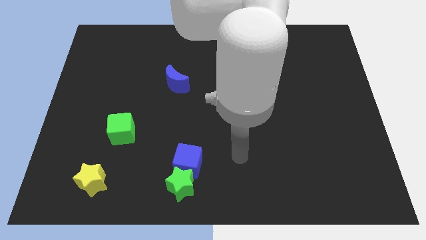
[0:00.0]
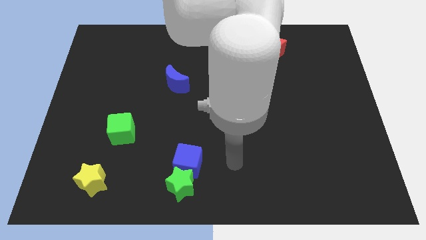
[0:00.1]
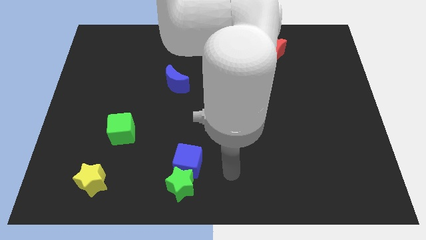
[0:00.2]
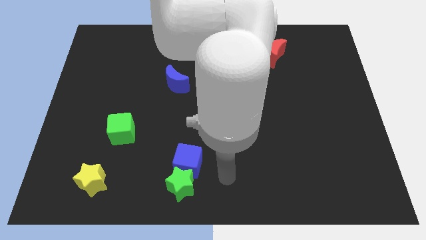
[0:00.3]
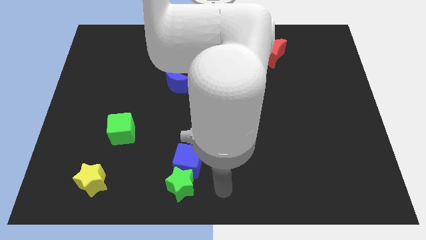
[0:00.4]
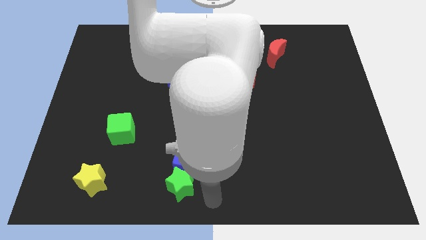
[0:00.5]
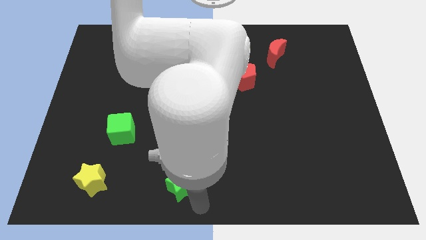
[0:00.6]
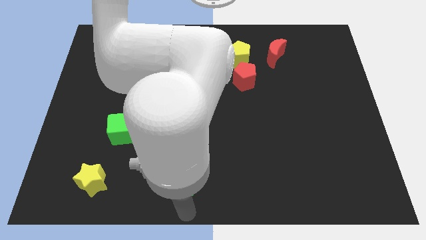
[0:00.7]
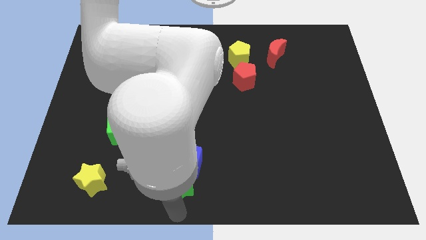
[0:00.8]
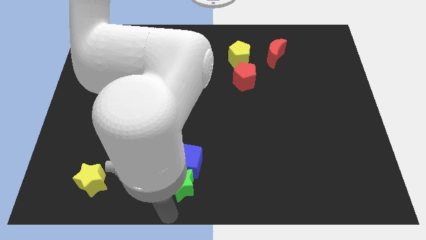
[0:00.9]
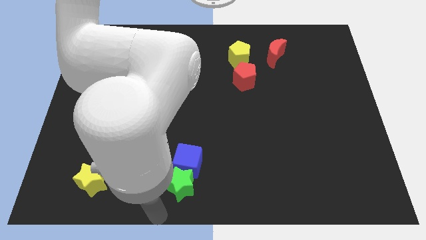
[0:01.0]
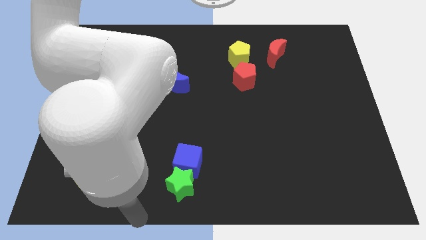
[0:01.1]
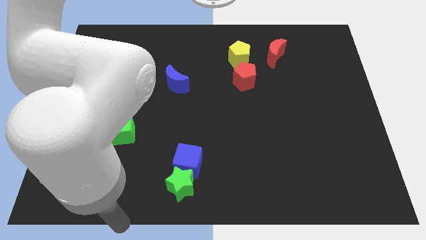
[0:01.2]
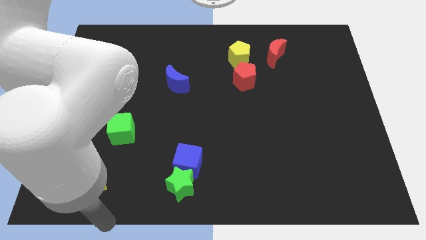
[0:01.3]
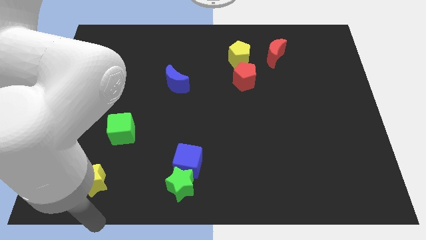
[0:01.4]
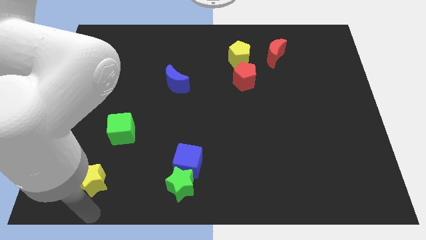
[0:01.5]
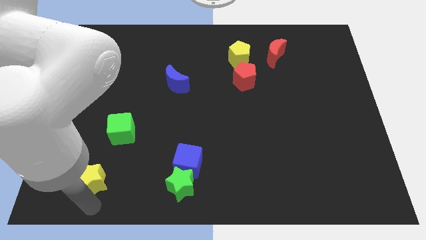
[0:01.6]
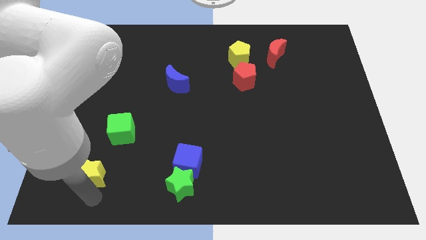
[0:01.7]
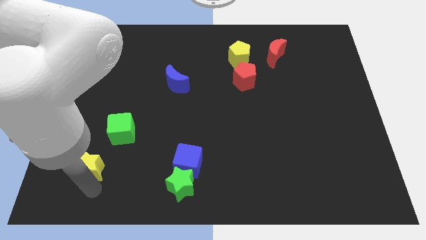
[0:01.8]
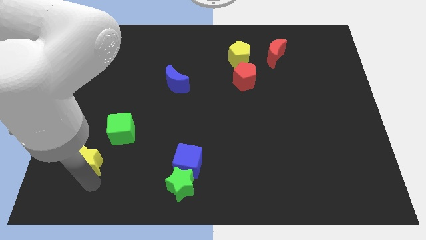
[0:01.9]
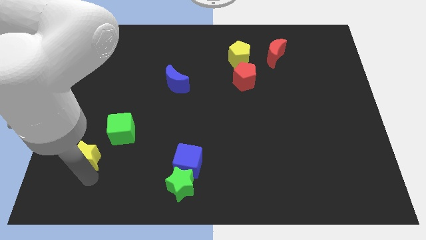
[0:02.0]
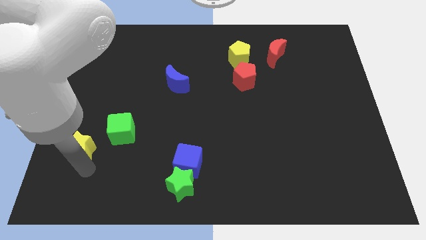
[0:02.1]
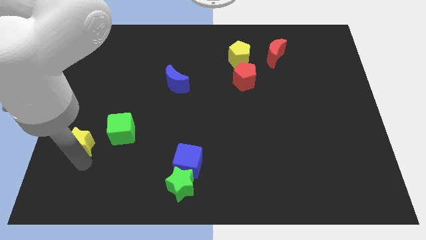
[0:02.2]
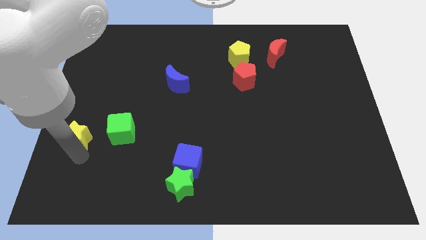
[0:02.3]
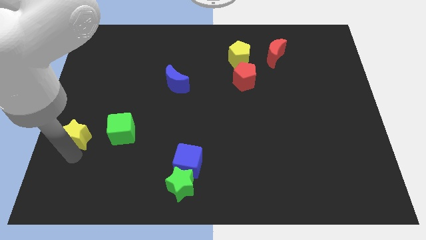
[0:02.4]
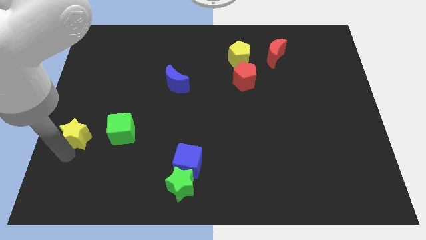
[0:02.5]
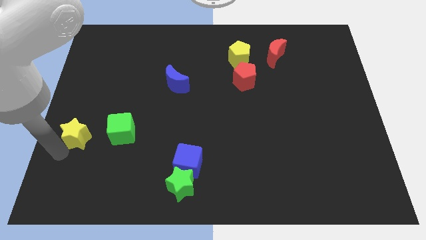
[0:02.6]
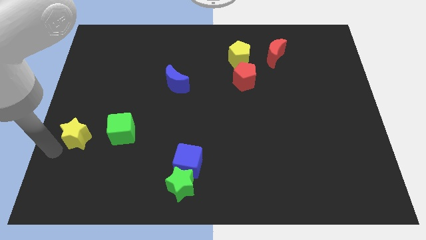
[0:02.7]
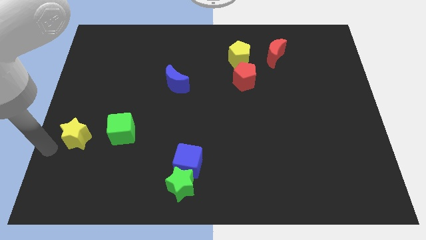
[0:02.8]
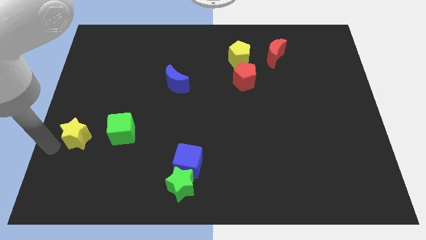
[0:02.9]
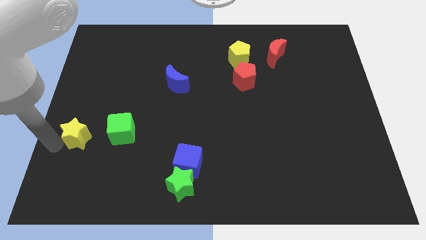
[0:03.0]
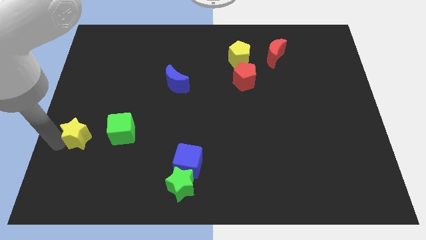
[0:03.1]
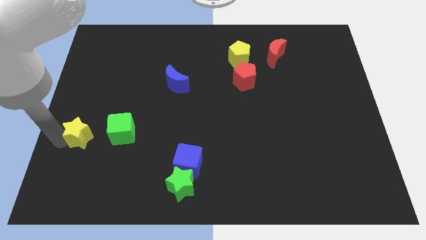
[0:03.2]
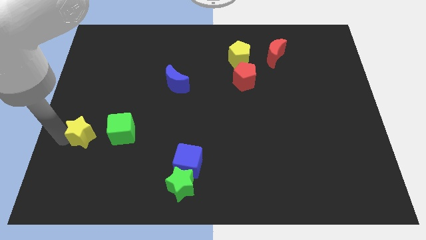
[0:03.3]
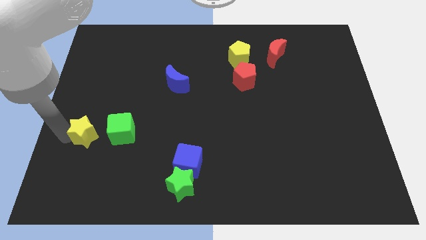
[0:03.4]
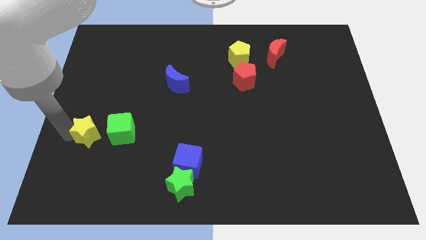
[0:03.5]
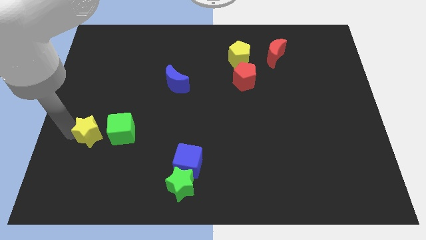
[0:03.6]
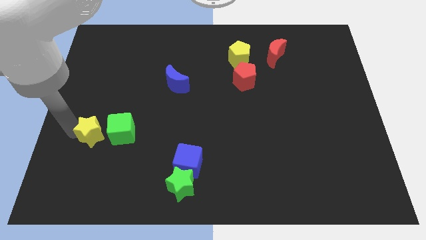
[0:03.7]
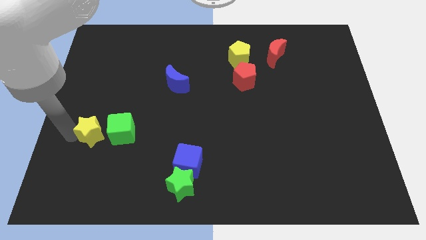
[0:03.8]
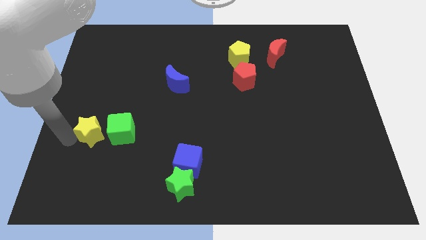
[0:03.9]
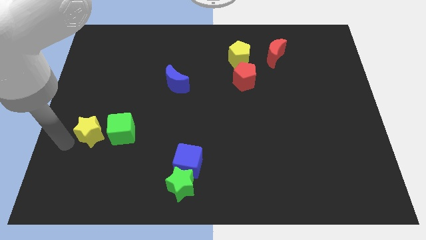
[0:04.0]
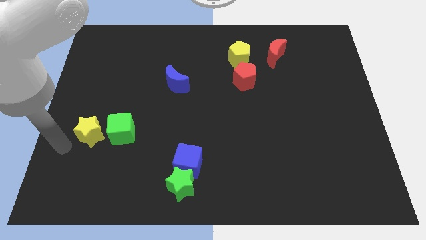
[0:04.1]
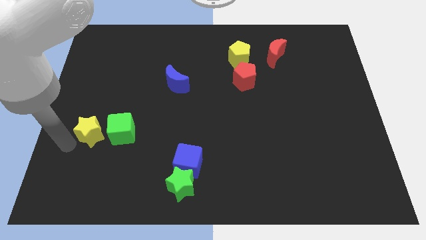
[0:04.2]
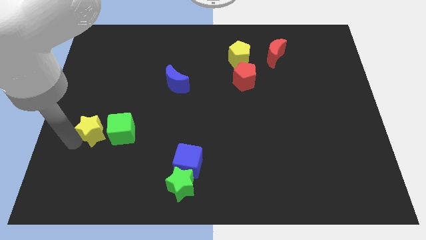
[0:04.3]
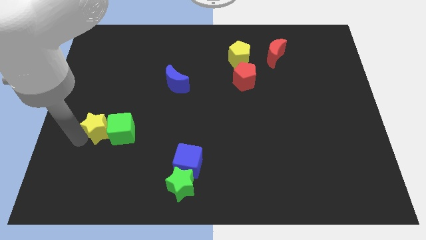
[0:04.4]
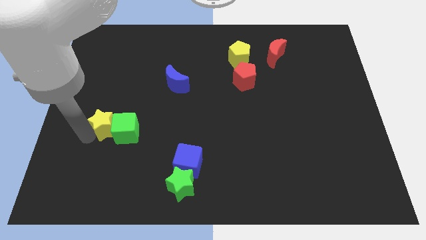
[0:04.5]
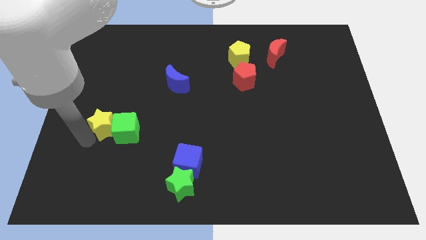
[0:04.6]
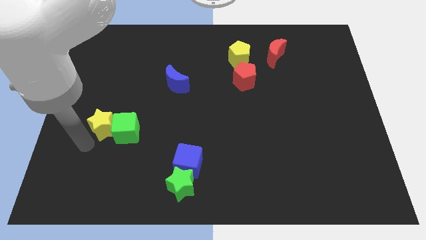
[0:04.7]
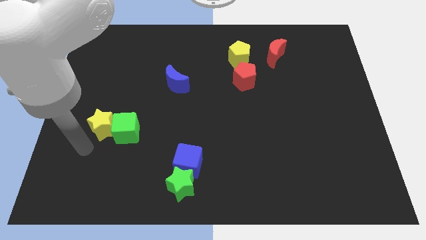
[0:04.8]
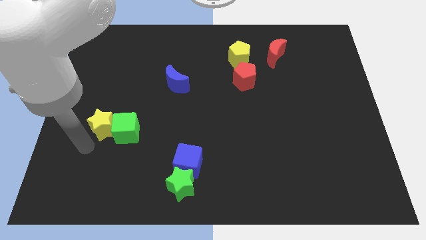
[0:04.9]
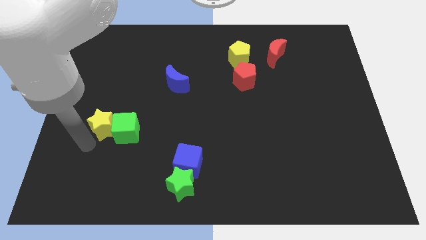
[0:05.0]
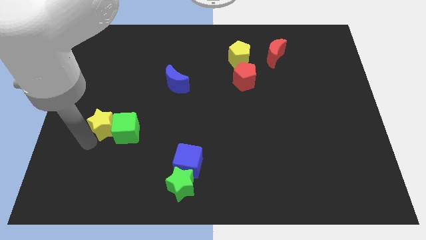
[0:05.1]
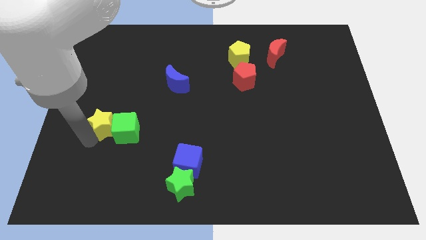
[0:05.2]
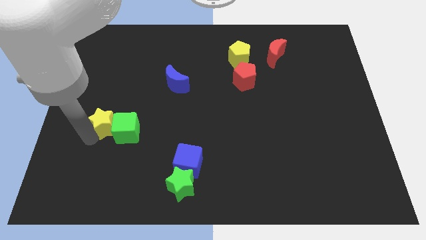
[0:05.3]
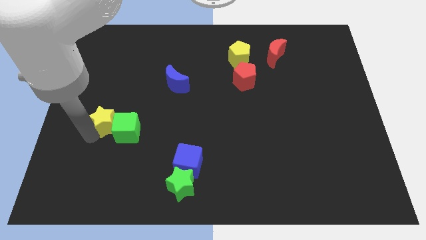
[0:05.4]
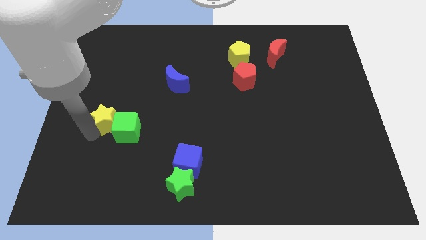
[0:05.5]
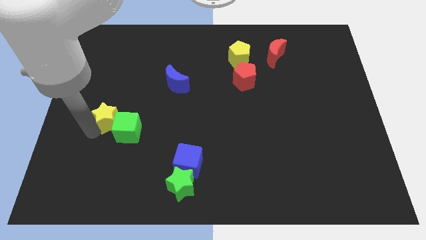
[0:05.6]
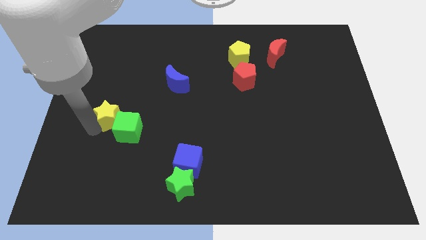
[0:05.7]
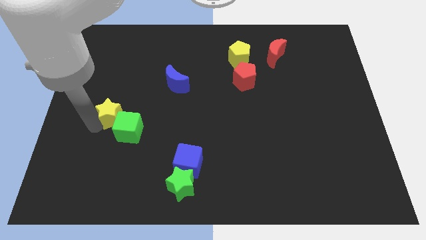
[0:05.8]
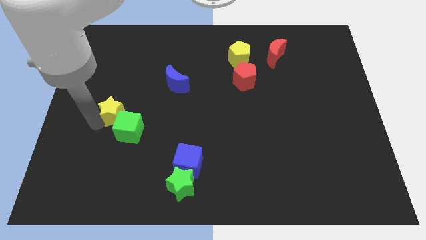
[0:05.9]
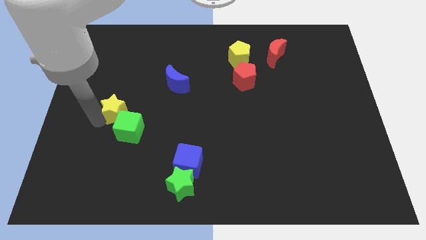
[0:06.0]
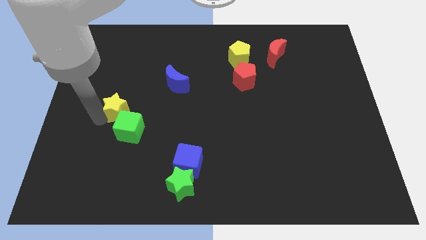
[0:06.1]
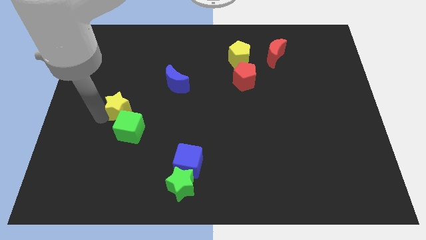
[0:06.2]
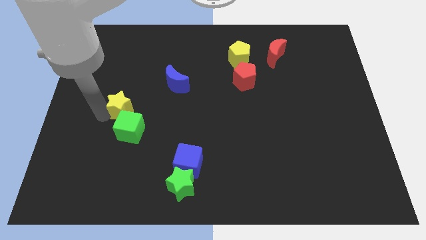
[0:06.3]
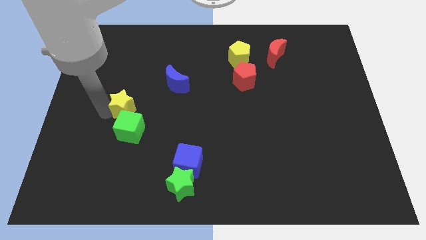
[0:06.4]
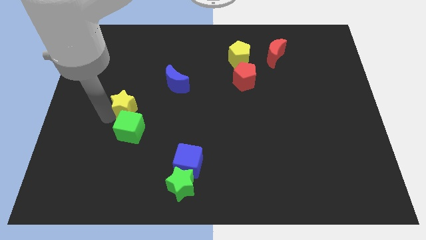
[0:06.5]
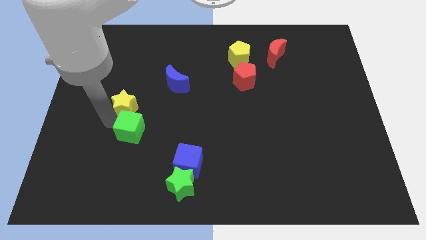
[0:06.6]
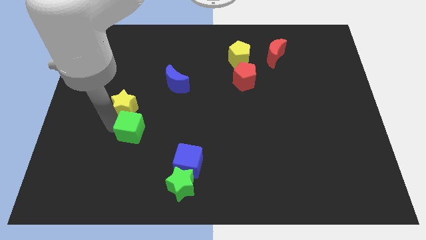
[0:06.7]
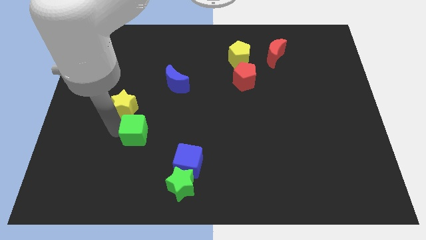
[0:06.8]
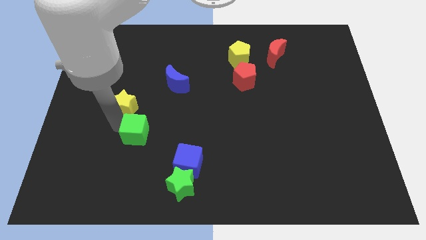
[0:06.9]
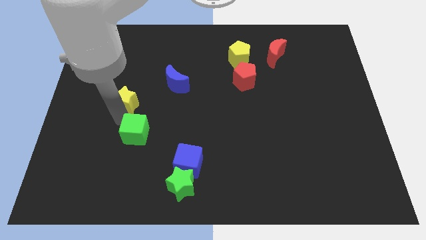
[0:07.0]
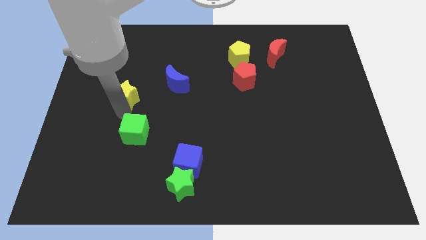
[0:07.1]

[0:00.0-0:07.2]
put the yellow star just left of the blue moon
